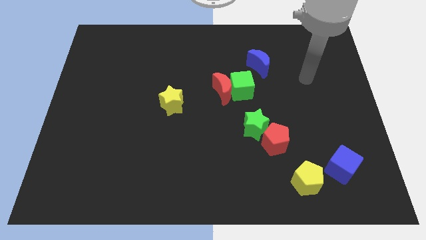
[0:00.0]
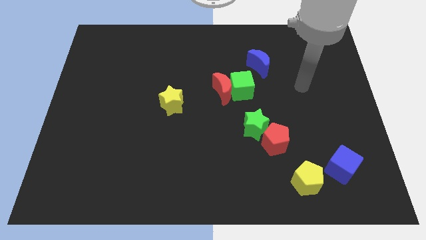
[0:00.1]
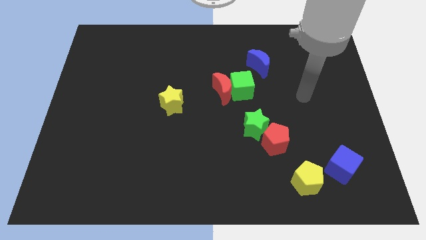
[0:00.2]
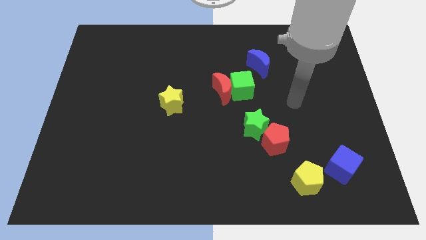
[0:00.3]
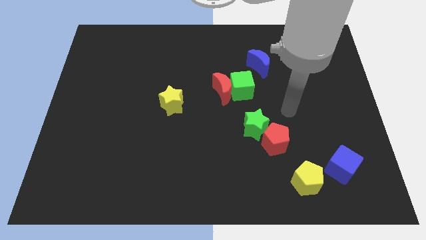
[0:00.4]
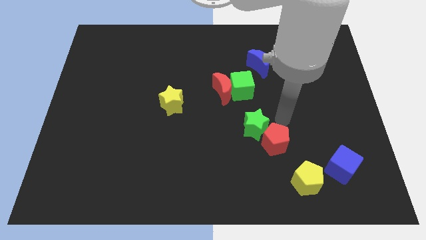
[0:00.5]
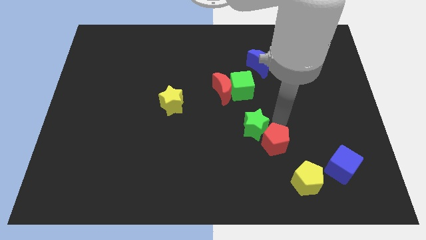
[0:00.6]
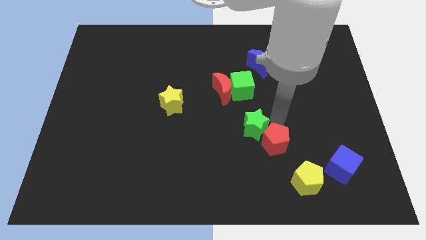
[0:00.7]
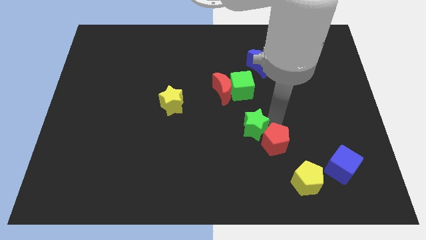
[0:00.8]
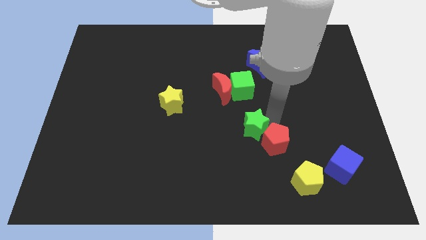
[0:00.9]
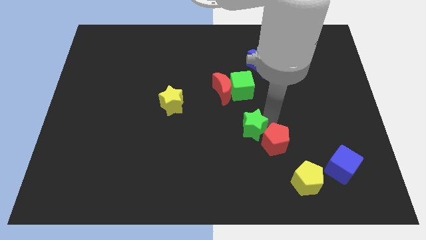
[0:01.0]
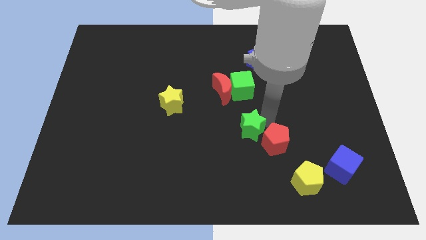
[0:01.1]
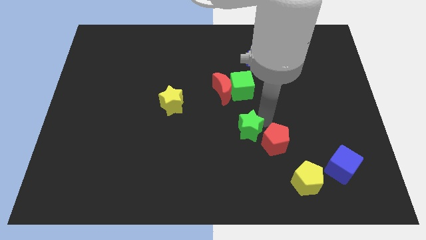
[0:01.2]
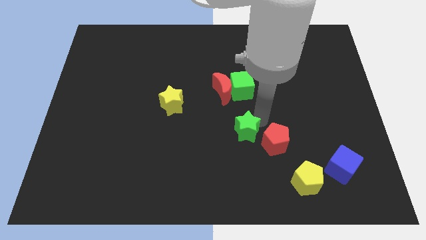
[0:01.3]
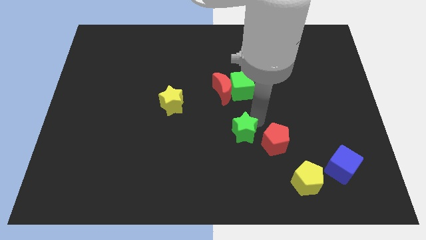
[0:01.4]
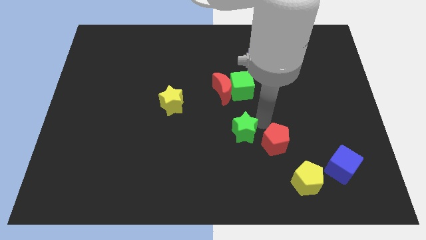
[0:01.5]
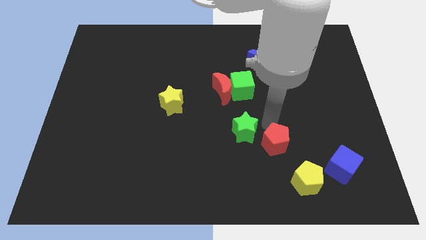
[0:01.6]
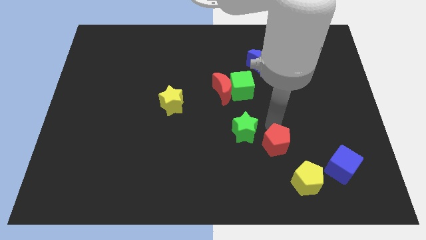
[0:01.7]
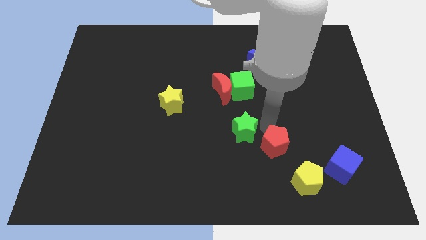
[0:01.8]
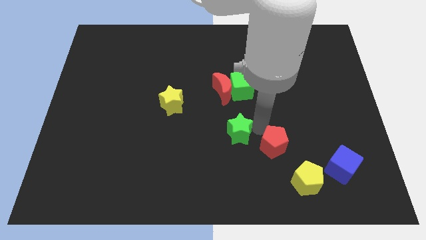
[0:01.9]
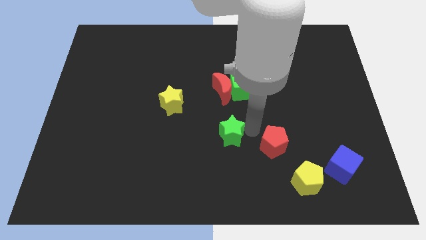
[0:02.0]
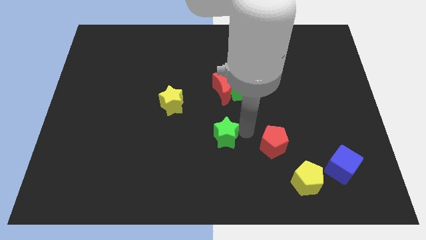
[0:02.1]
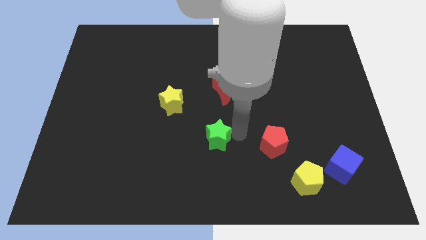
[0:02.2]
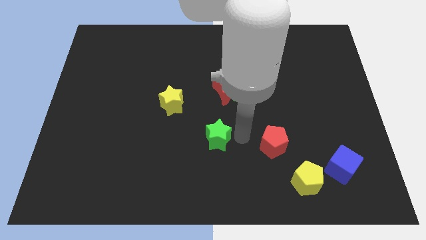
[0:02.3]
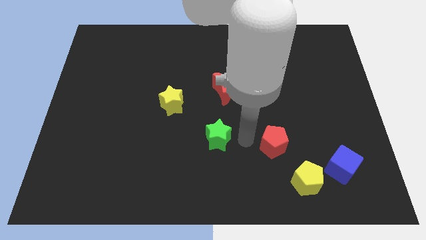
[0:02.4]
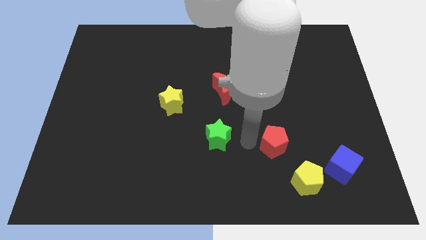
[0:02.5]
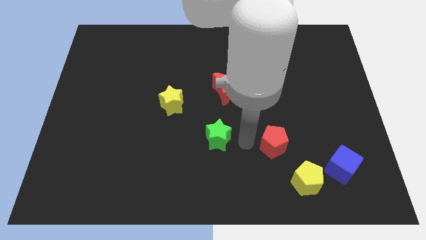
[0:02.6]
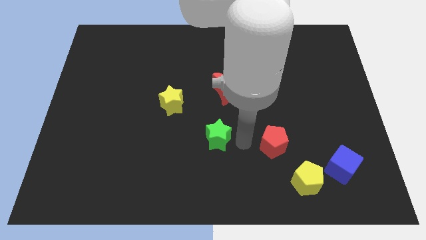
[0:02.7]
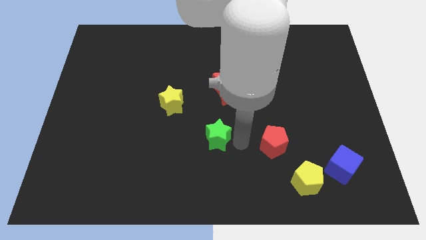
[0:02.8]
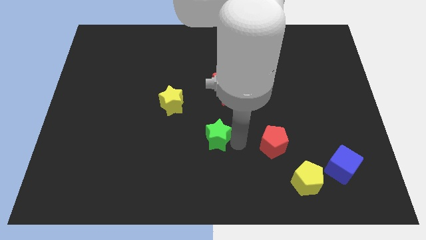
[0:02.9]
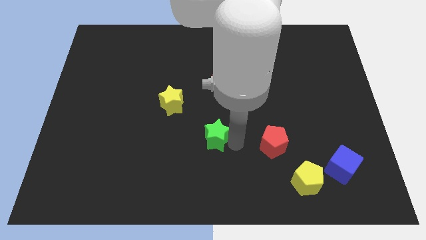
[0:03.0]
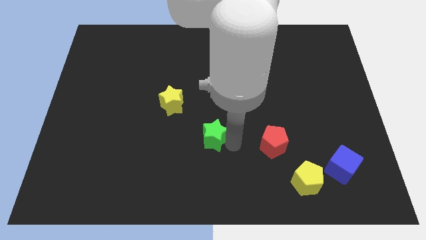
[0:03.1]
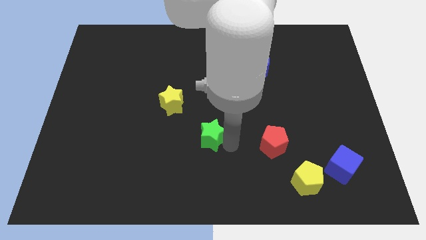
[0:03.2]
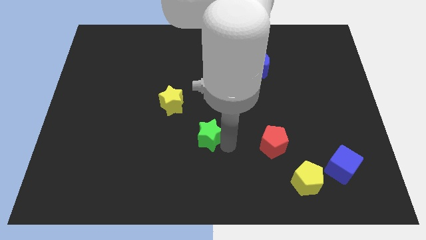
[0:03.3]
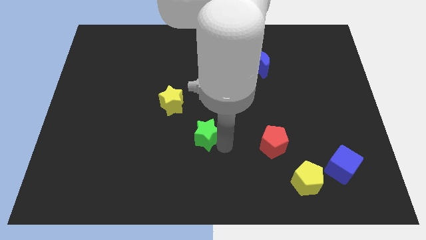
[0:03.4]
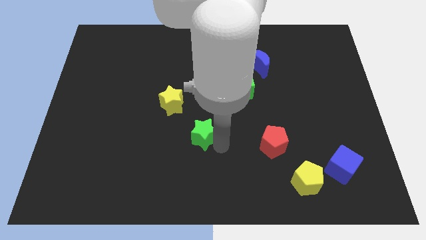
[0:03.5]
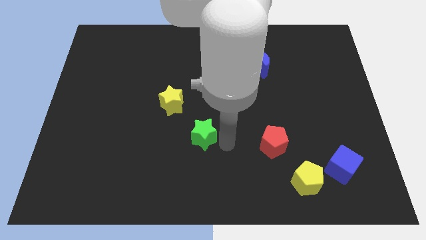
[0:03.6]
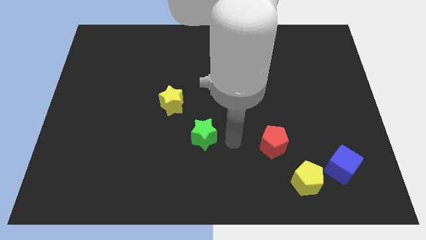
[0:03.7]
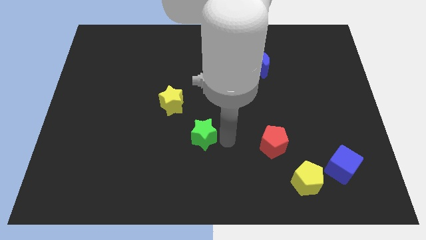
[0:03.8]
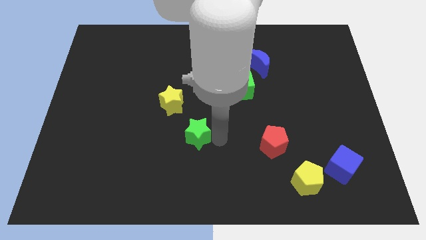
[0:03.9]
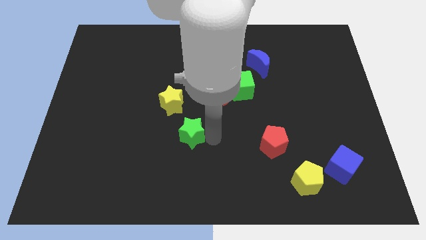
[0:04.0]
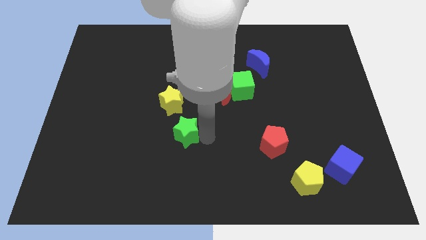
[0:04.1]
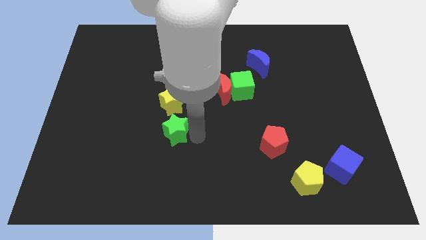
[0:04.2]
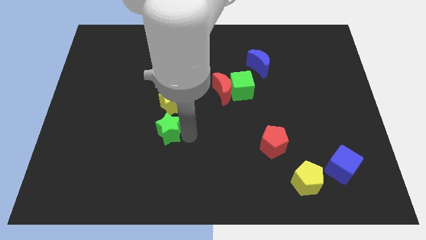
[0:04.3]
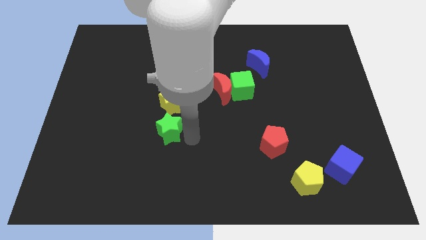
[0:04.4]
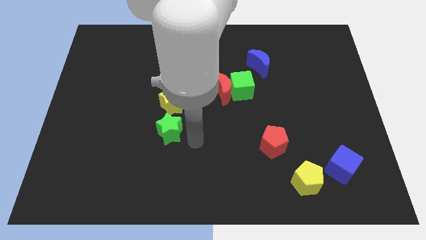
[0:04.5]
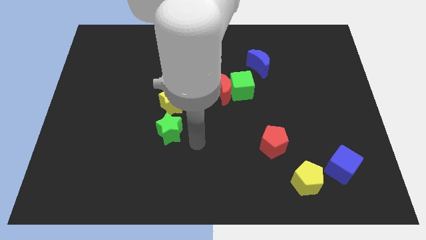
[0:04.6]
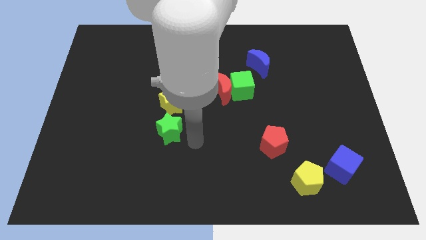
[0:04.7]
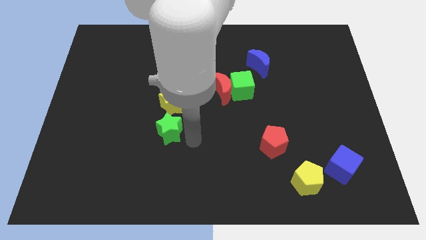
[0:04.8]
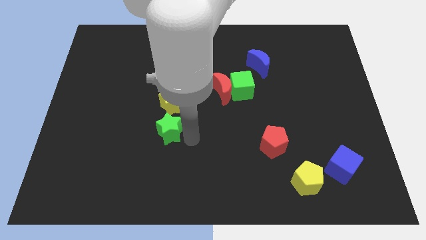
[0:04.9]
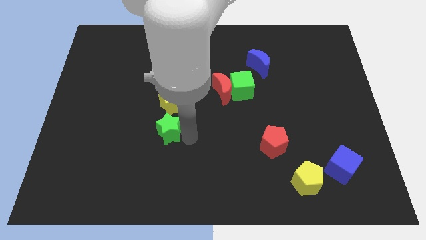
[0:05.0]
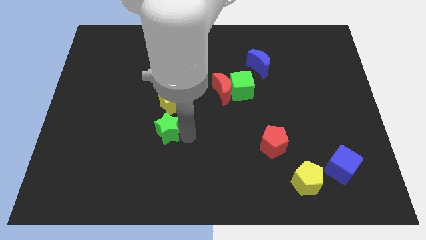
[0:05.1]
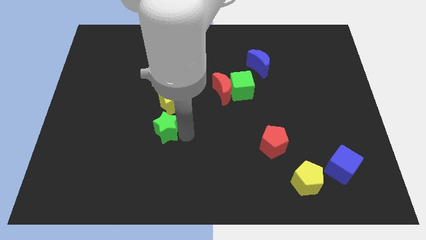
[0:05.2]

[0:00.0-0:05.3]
push the green star to the left

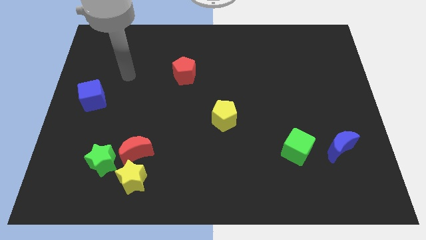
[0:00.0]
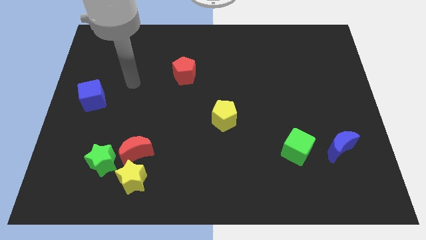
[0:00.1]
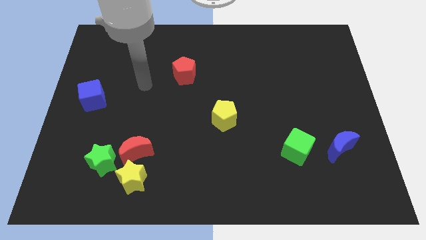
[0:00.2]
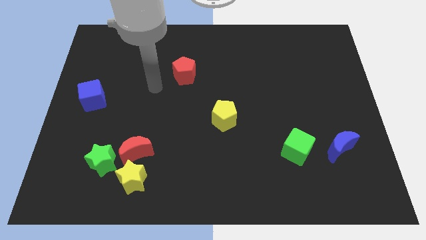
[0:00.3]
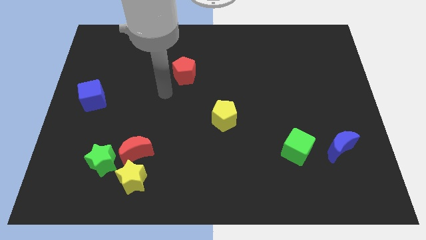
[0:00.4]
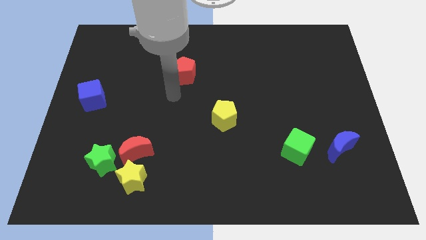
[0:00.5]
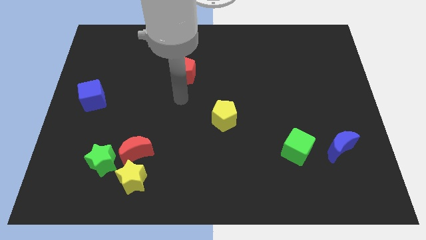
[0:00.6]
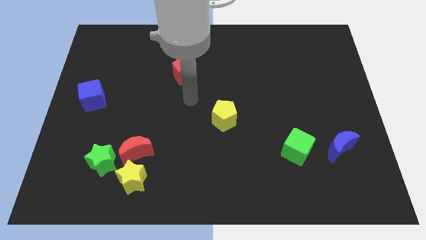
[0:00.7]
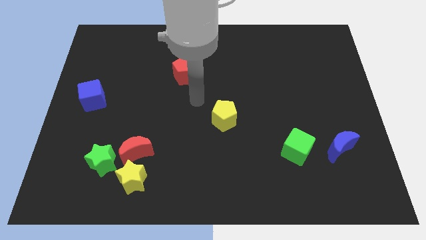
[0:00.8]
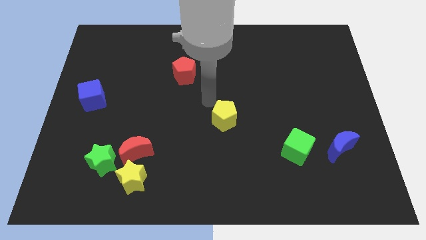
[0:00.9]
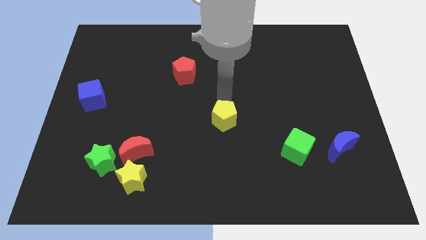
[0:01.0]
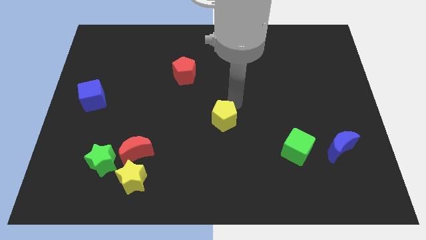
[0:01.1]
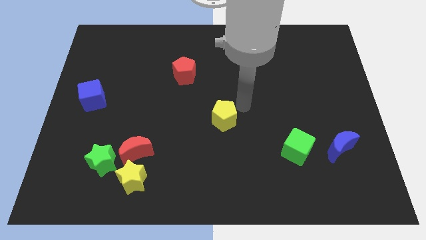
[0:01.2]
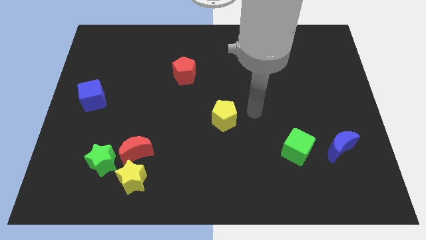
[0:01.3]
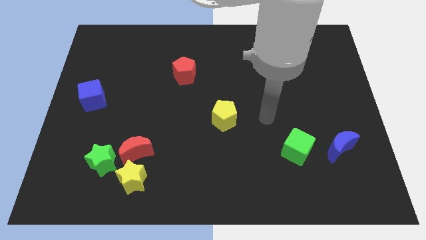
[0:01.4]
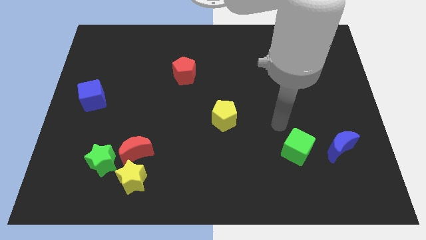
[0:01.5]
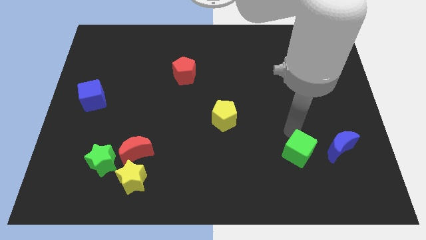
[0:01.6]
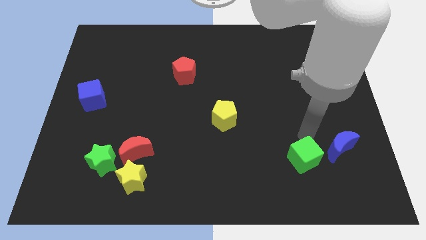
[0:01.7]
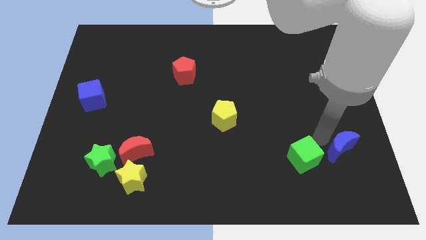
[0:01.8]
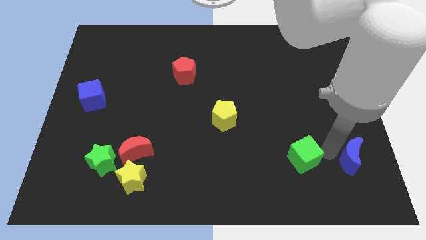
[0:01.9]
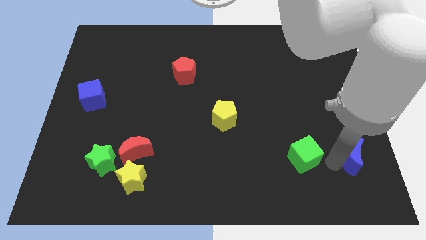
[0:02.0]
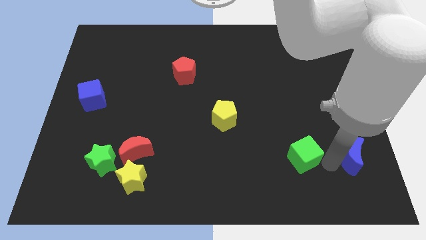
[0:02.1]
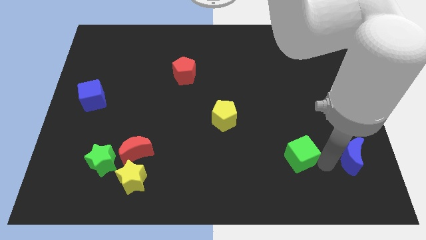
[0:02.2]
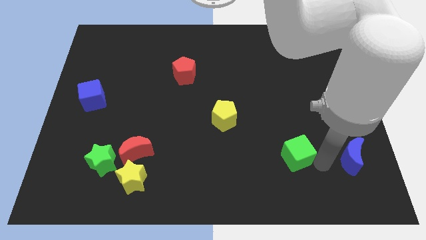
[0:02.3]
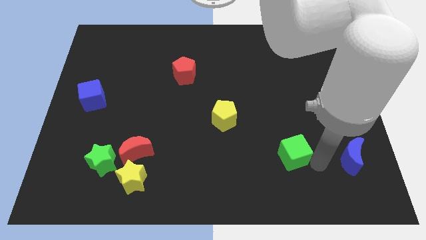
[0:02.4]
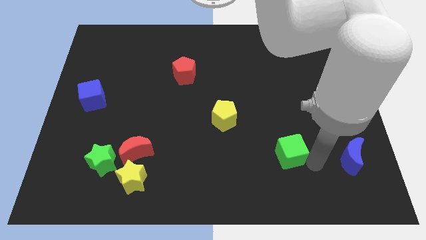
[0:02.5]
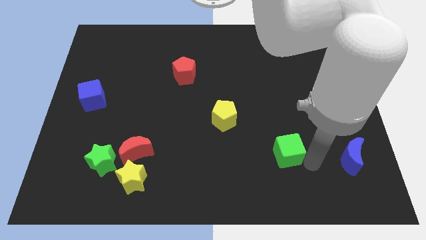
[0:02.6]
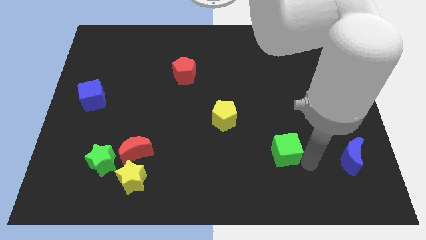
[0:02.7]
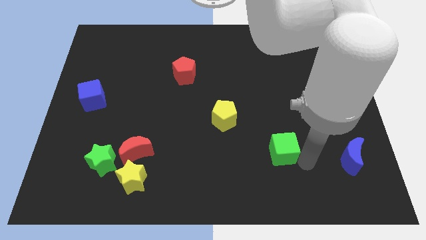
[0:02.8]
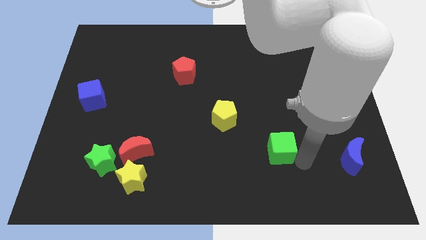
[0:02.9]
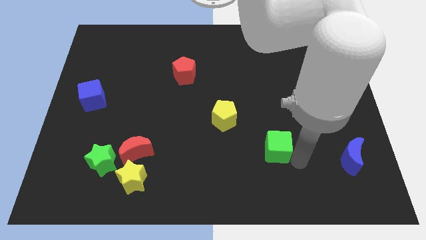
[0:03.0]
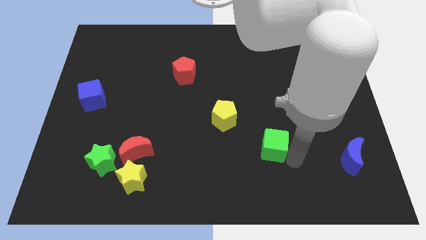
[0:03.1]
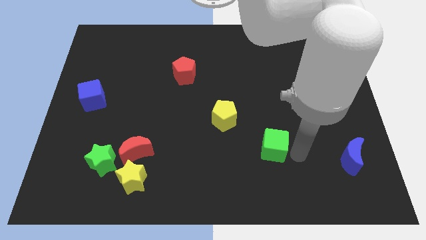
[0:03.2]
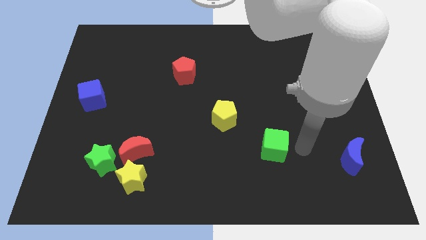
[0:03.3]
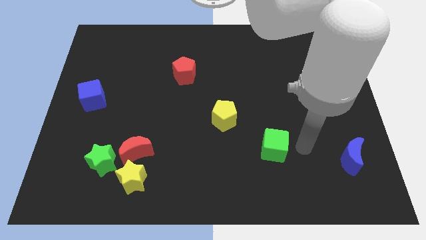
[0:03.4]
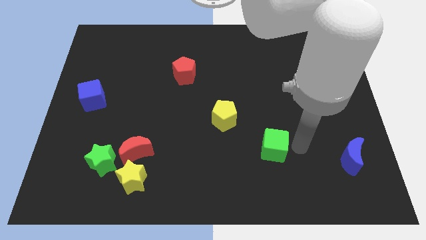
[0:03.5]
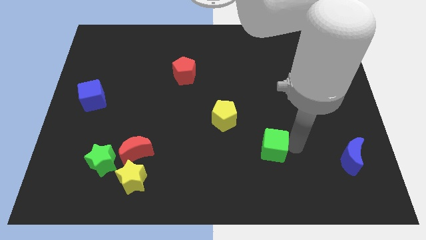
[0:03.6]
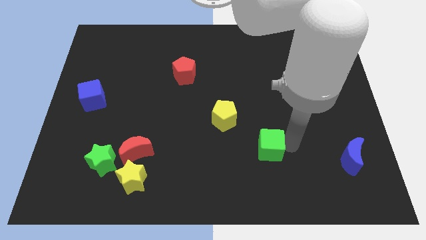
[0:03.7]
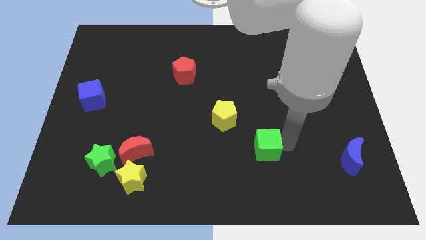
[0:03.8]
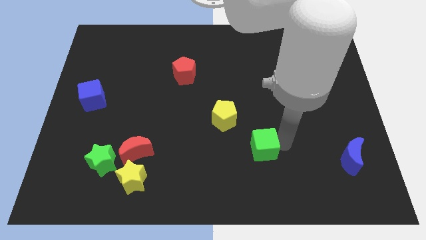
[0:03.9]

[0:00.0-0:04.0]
move the green cube to the left slightly
